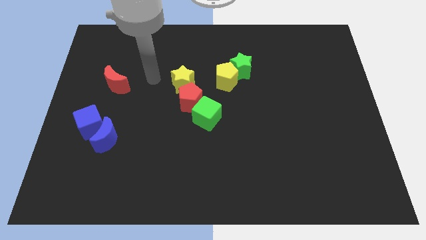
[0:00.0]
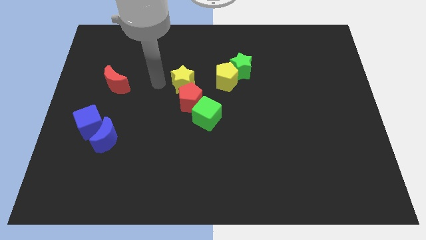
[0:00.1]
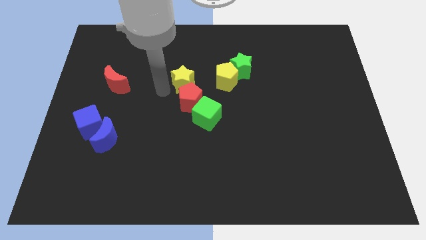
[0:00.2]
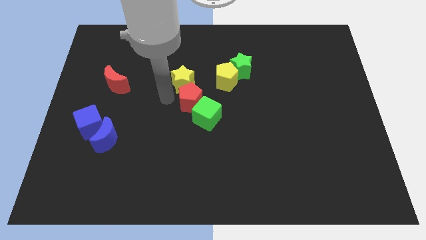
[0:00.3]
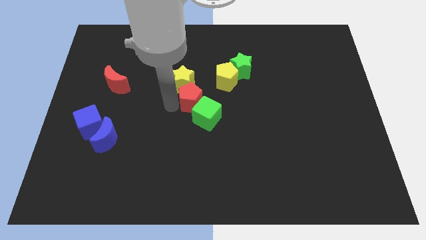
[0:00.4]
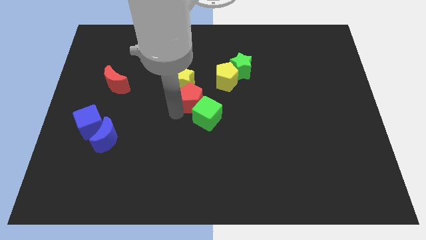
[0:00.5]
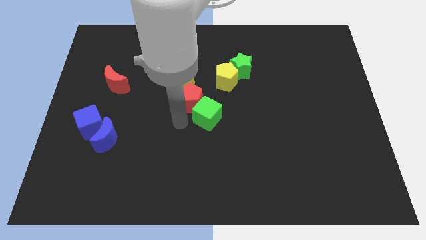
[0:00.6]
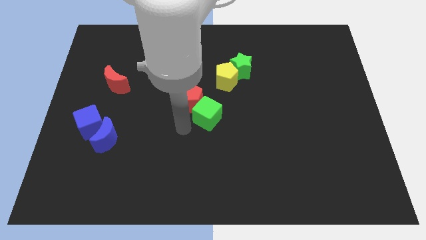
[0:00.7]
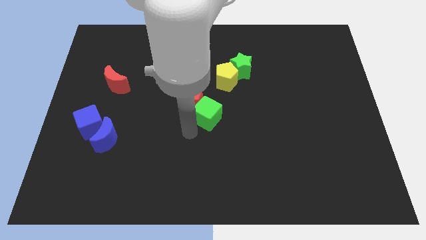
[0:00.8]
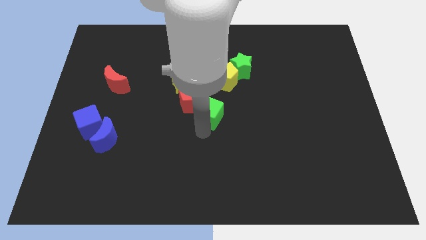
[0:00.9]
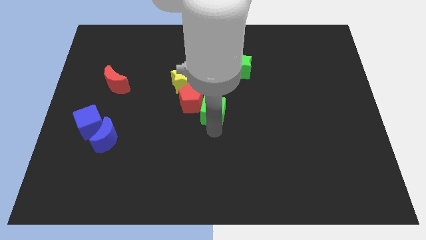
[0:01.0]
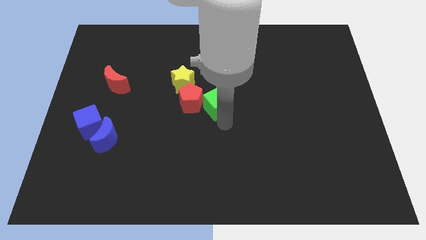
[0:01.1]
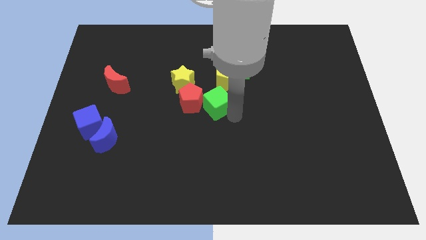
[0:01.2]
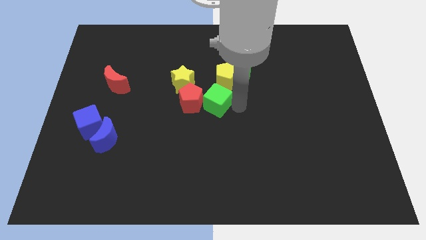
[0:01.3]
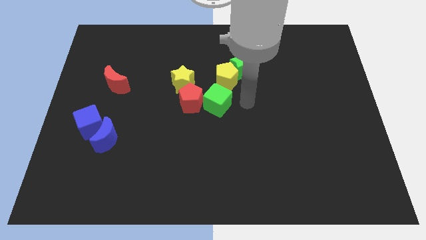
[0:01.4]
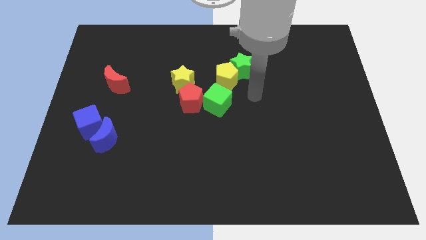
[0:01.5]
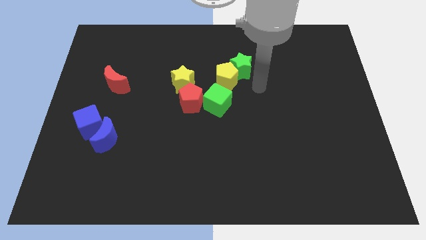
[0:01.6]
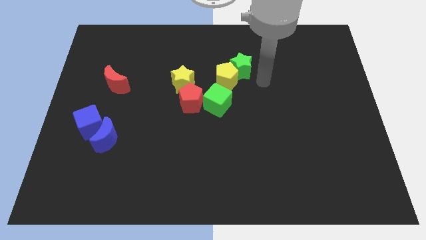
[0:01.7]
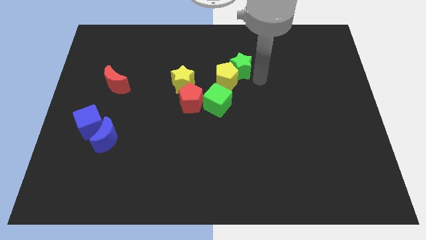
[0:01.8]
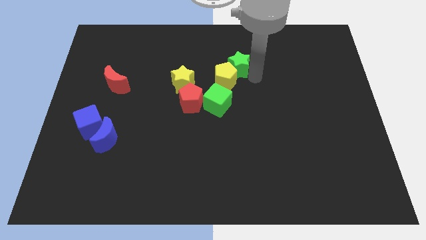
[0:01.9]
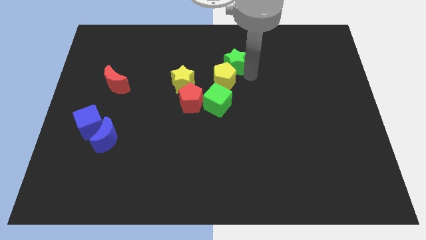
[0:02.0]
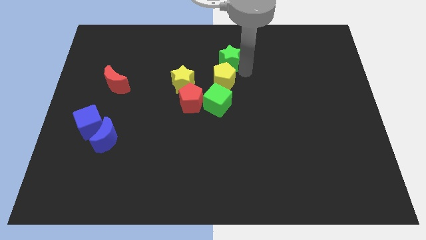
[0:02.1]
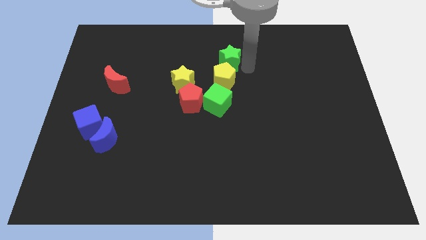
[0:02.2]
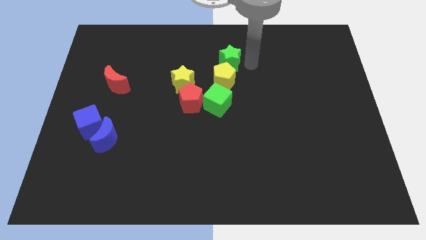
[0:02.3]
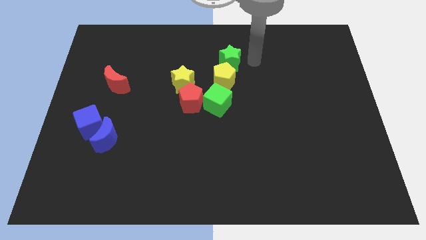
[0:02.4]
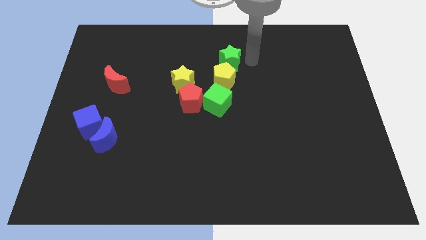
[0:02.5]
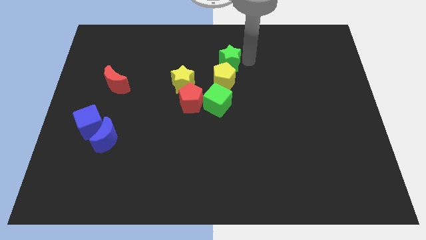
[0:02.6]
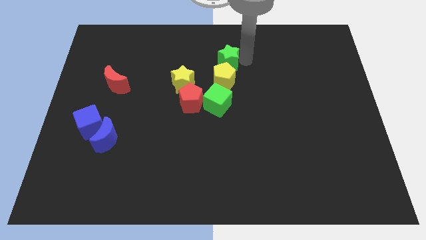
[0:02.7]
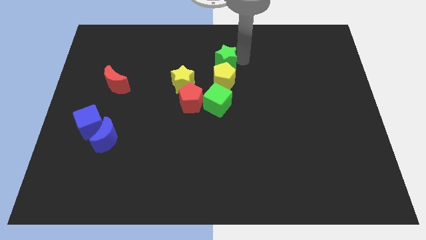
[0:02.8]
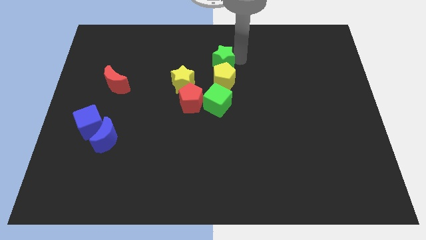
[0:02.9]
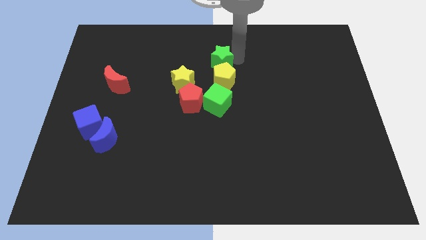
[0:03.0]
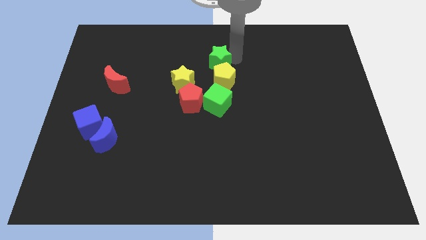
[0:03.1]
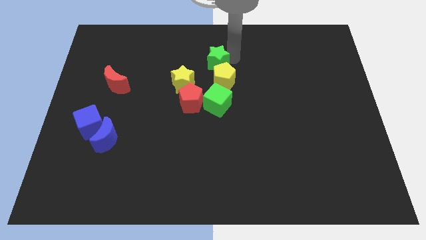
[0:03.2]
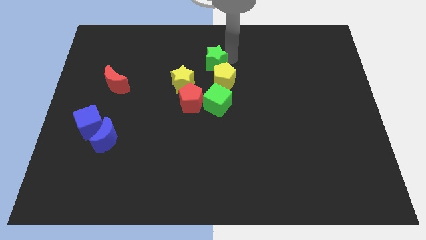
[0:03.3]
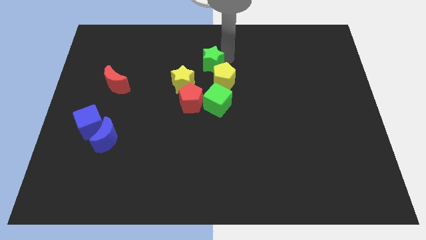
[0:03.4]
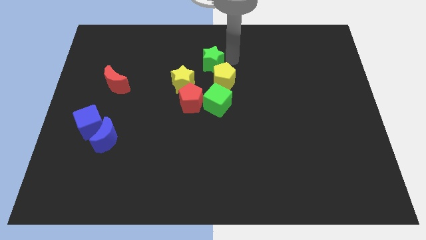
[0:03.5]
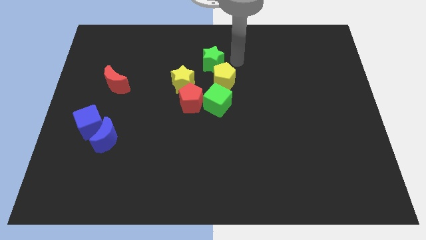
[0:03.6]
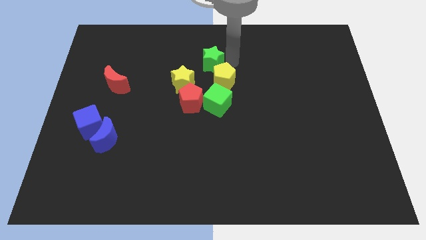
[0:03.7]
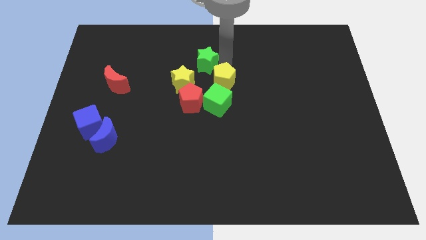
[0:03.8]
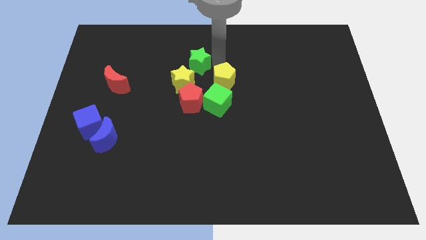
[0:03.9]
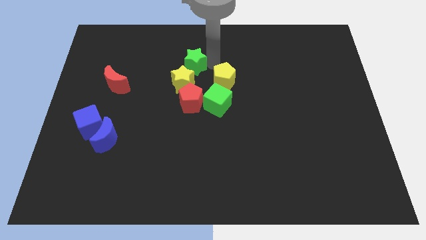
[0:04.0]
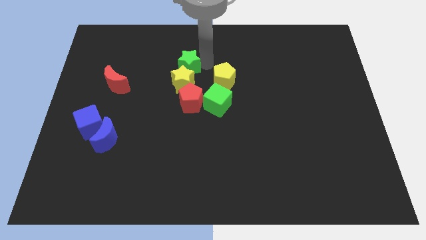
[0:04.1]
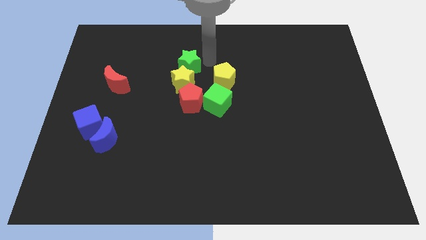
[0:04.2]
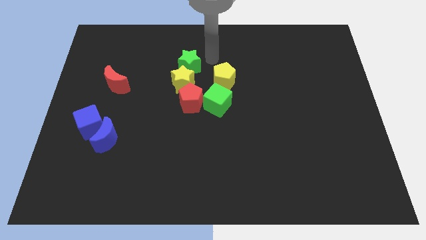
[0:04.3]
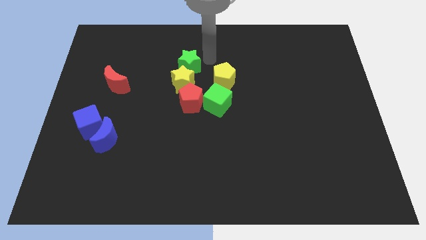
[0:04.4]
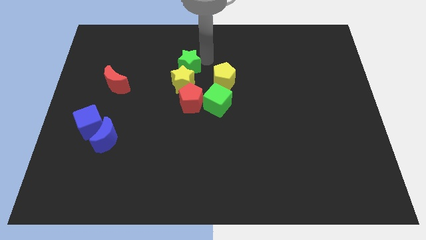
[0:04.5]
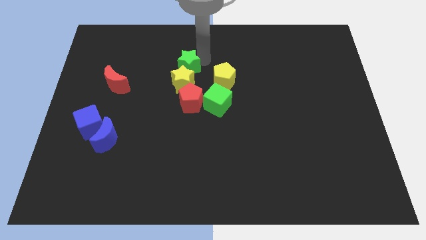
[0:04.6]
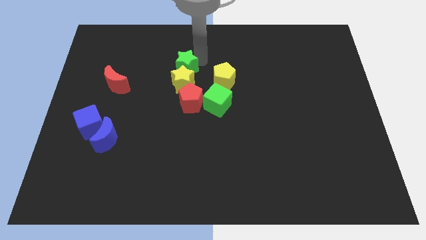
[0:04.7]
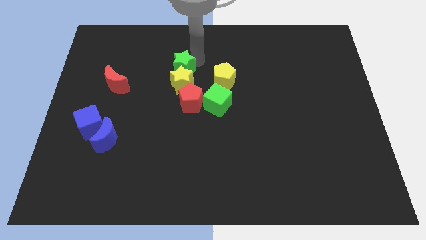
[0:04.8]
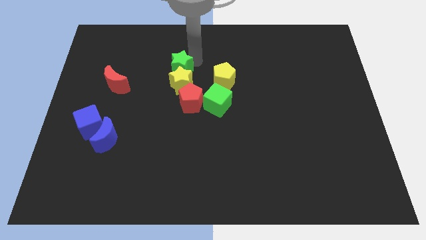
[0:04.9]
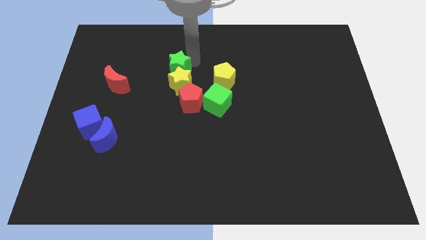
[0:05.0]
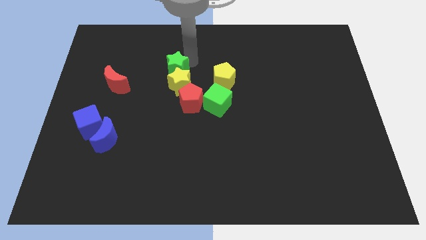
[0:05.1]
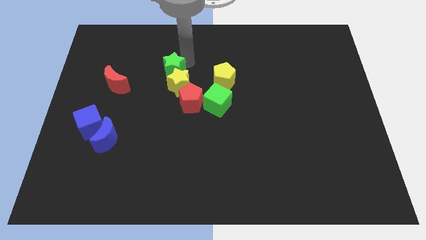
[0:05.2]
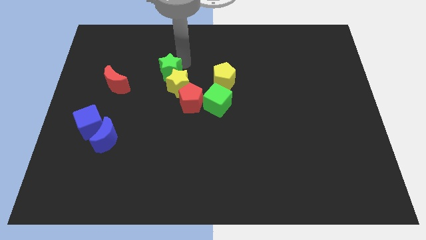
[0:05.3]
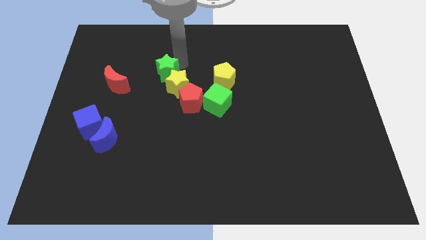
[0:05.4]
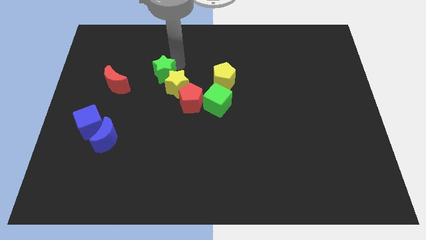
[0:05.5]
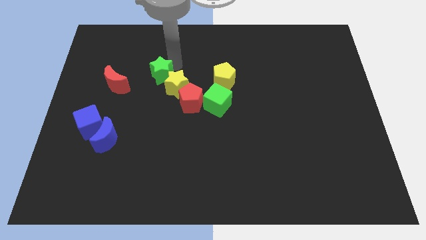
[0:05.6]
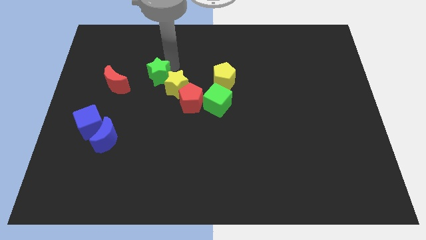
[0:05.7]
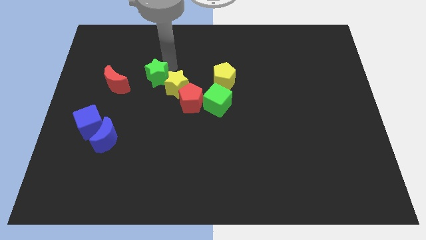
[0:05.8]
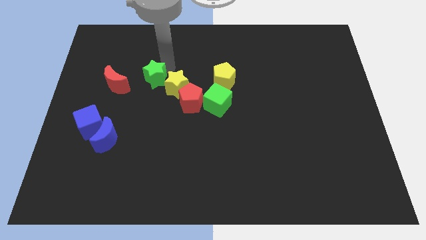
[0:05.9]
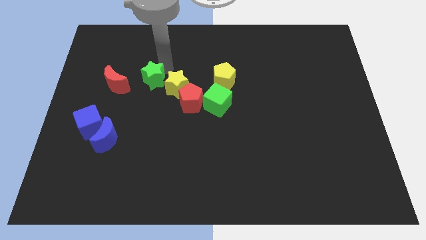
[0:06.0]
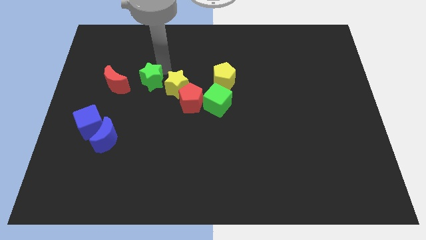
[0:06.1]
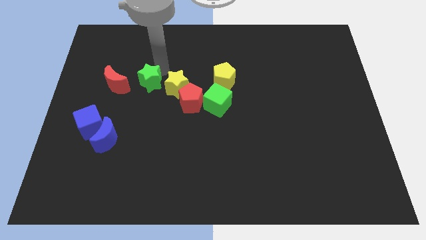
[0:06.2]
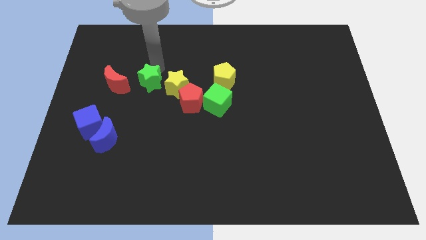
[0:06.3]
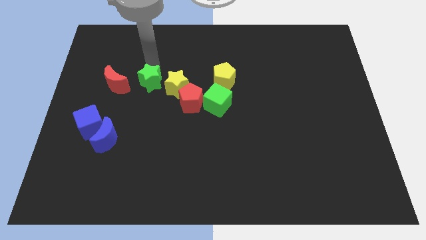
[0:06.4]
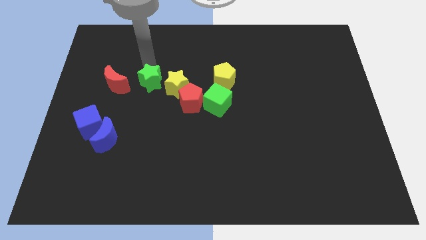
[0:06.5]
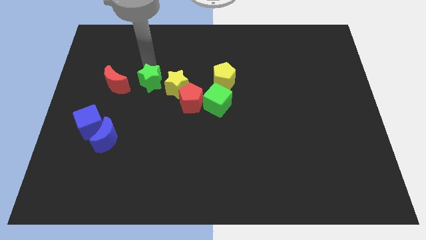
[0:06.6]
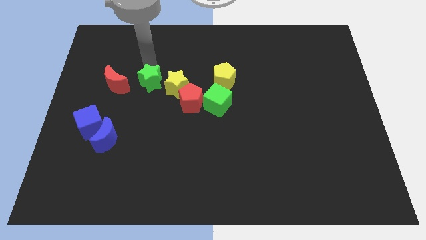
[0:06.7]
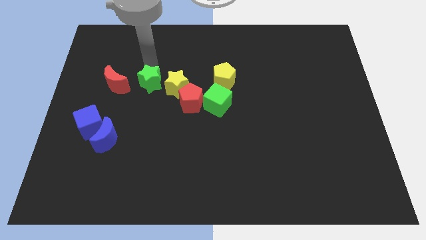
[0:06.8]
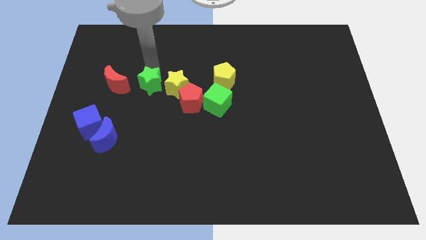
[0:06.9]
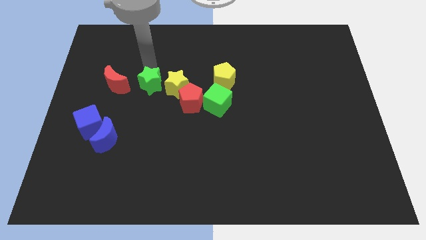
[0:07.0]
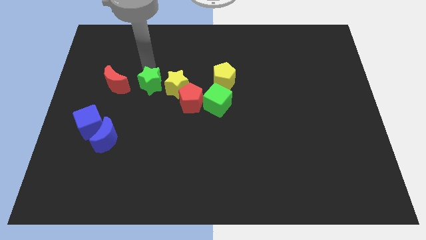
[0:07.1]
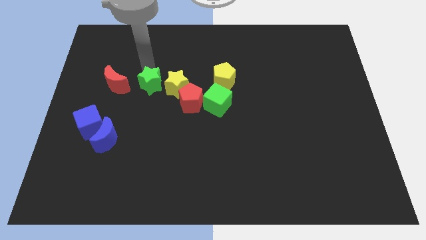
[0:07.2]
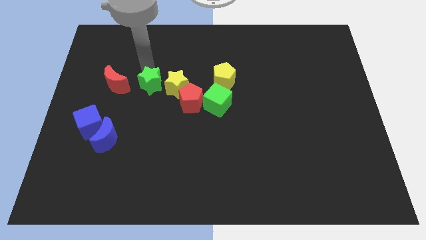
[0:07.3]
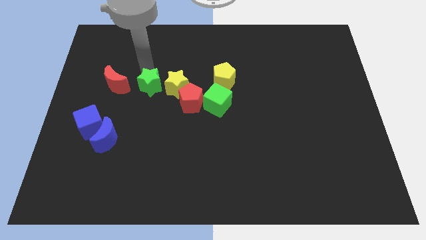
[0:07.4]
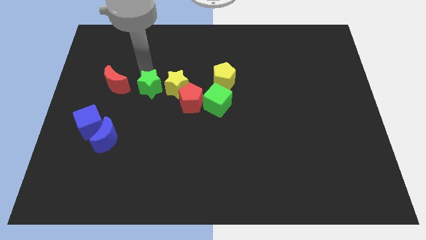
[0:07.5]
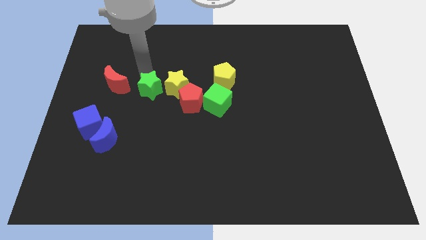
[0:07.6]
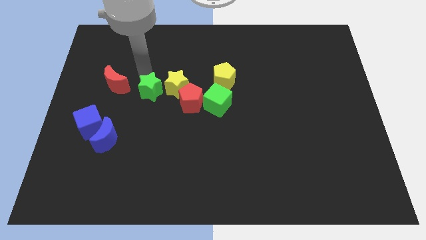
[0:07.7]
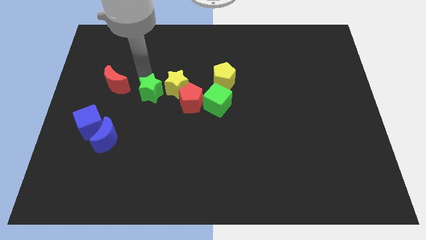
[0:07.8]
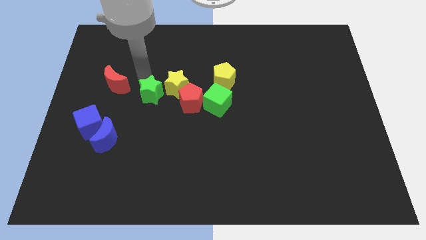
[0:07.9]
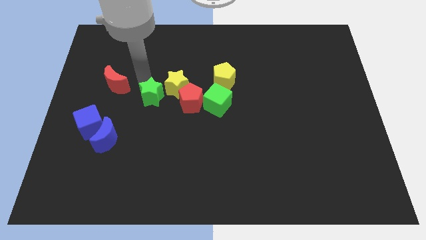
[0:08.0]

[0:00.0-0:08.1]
move the green star to the left of the green cube
